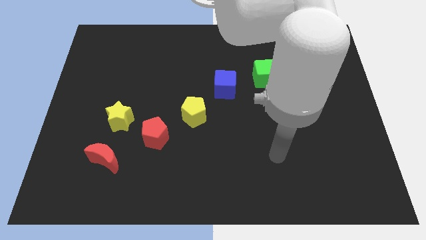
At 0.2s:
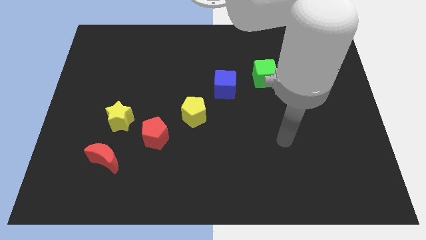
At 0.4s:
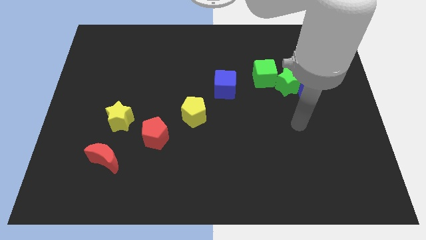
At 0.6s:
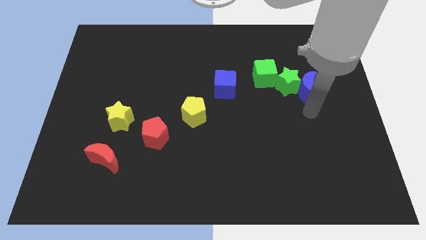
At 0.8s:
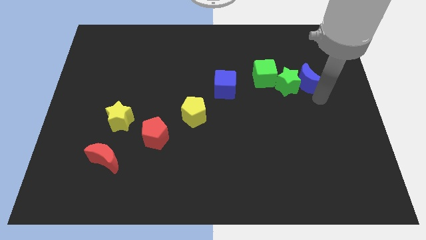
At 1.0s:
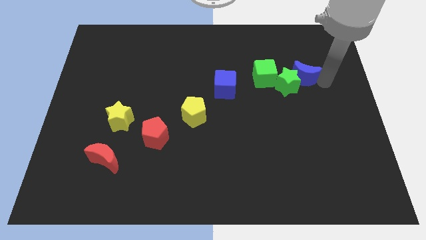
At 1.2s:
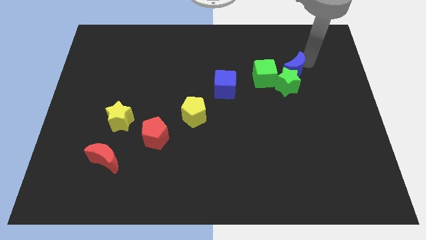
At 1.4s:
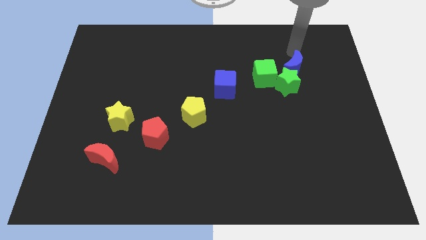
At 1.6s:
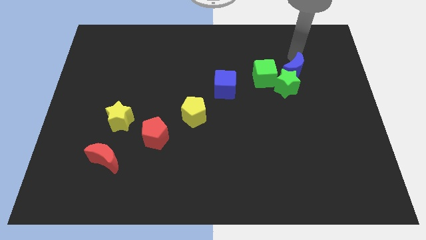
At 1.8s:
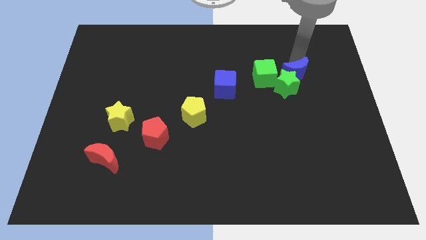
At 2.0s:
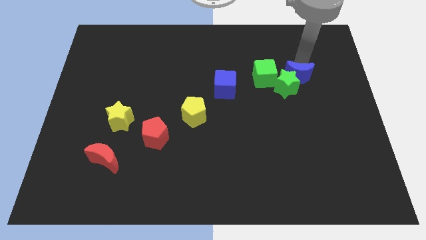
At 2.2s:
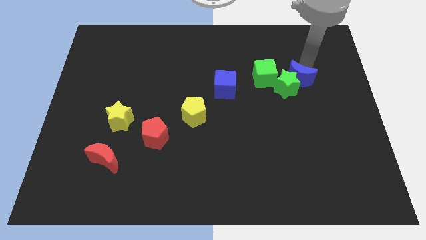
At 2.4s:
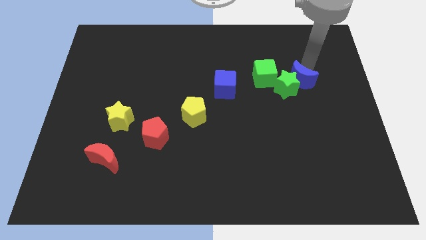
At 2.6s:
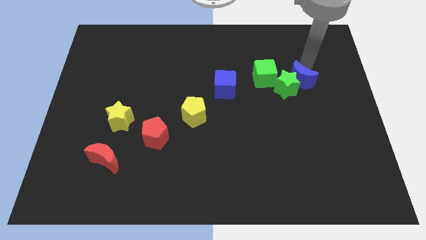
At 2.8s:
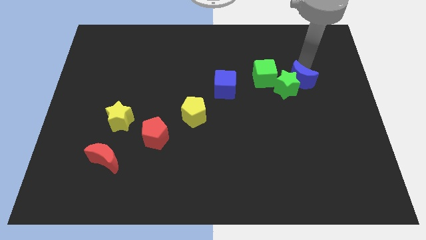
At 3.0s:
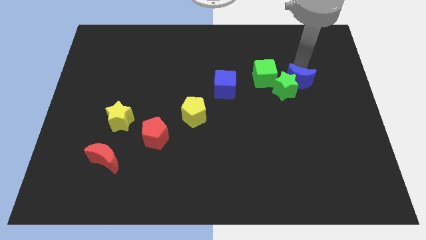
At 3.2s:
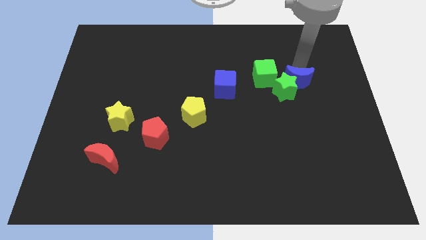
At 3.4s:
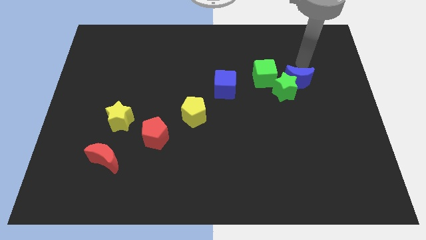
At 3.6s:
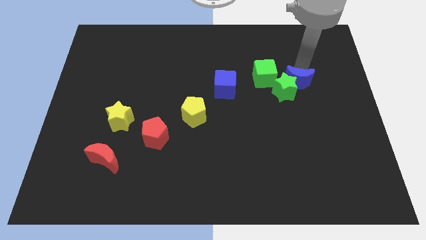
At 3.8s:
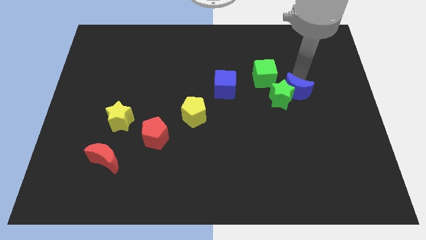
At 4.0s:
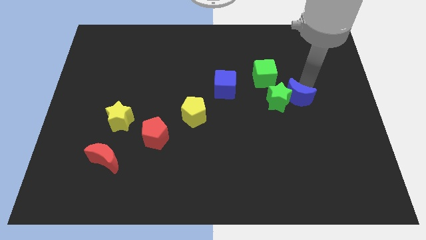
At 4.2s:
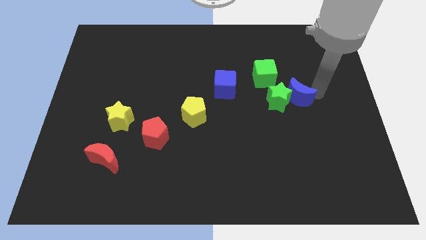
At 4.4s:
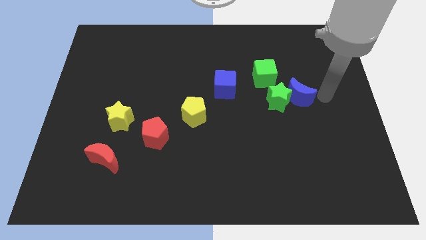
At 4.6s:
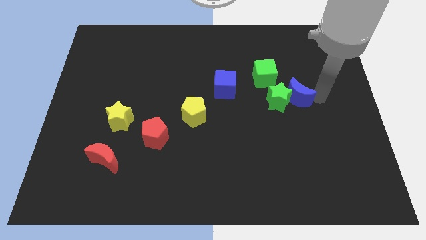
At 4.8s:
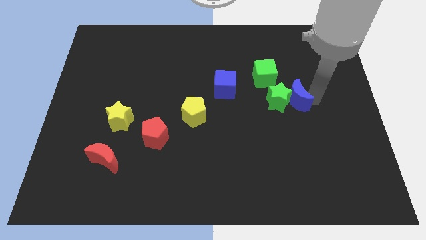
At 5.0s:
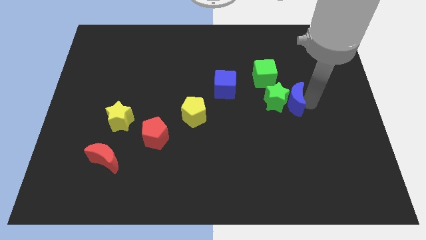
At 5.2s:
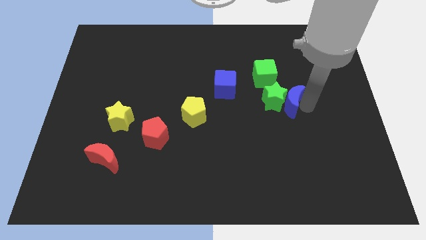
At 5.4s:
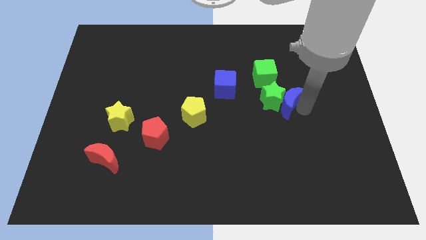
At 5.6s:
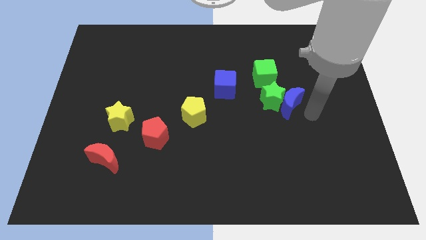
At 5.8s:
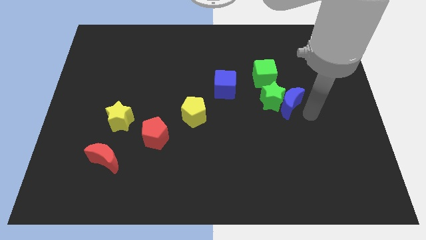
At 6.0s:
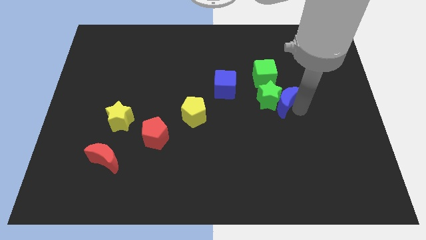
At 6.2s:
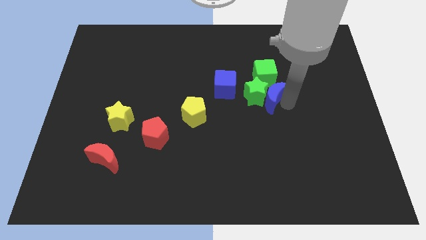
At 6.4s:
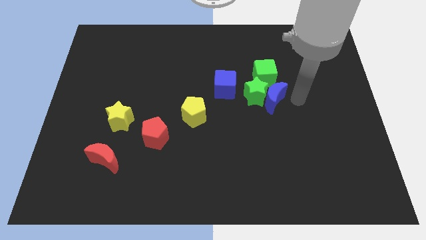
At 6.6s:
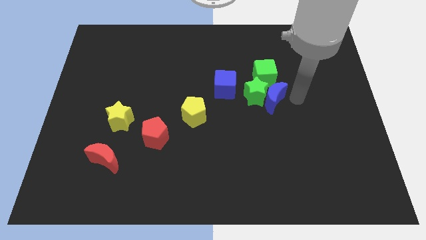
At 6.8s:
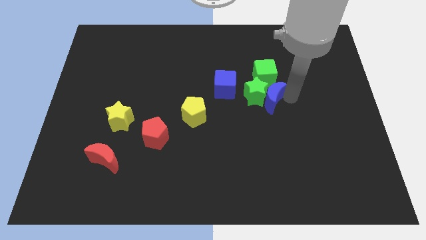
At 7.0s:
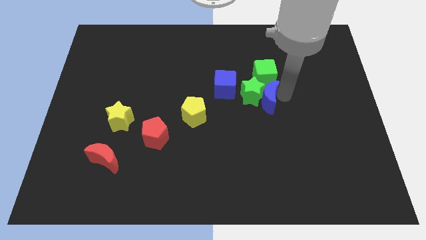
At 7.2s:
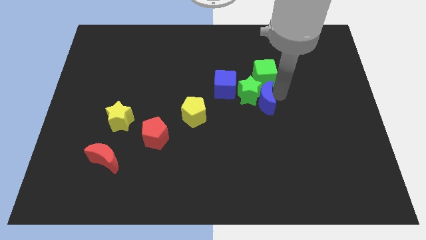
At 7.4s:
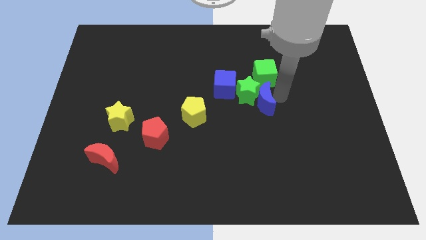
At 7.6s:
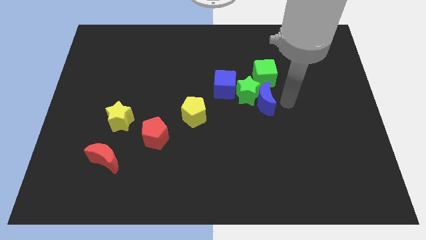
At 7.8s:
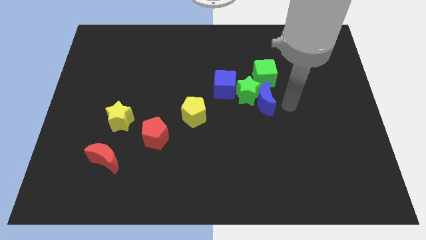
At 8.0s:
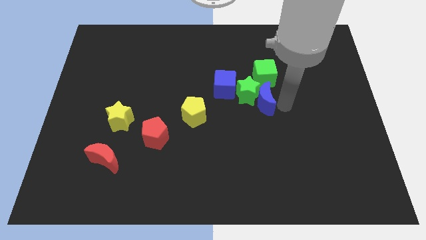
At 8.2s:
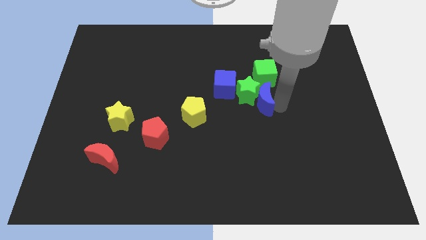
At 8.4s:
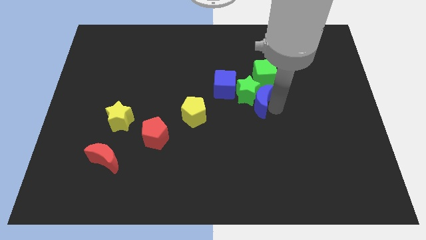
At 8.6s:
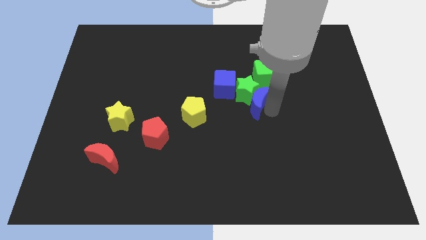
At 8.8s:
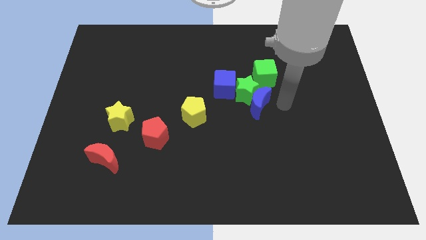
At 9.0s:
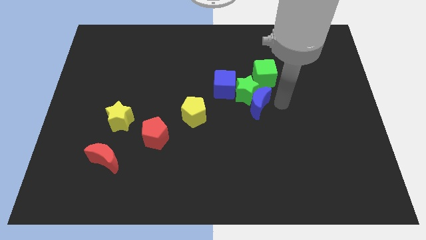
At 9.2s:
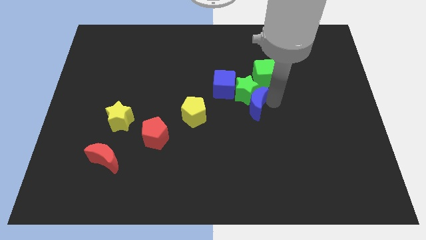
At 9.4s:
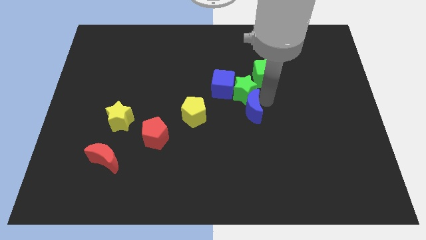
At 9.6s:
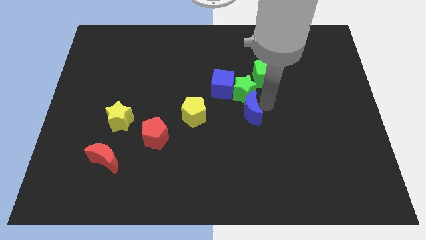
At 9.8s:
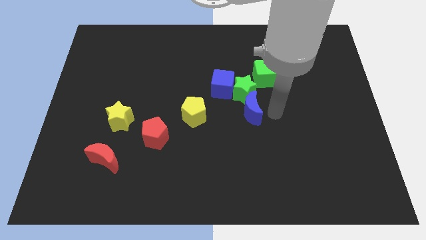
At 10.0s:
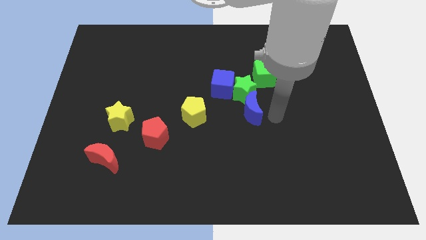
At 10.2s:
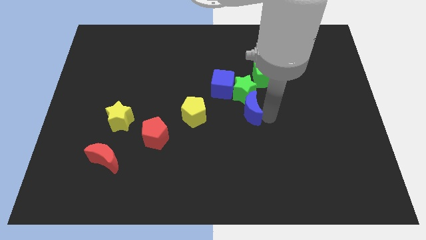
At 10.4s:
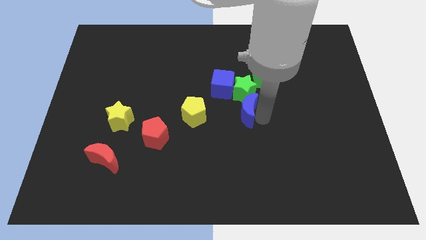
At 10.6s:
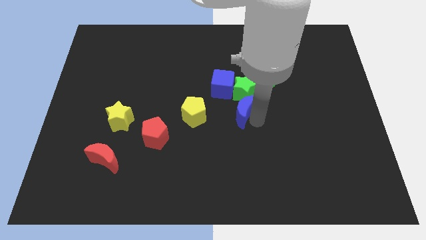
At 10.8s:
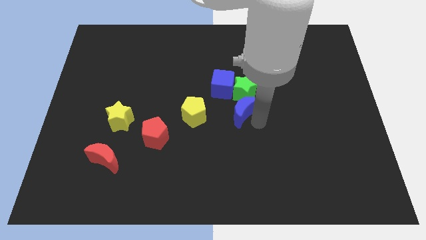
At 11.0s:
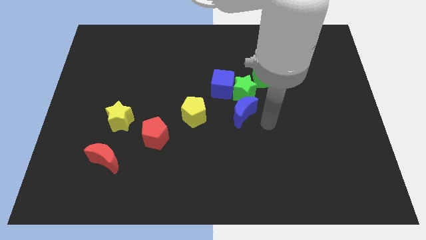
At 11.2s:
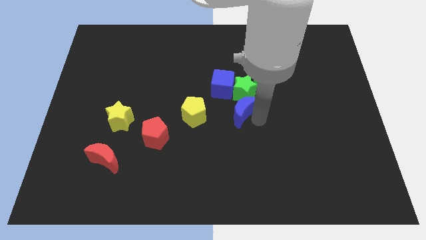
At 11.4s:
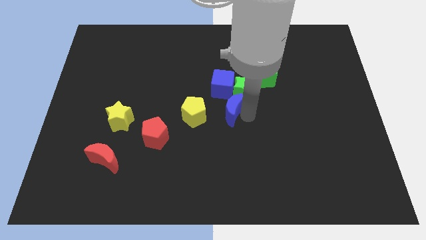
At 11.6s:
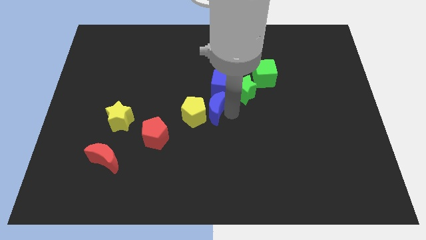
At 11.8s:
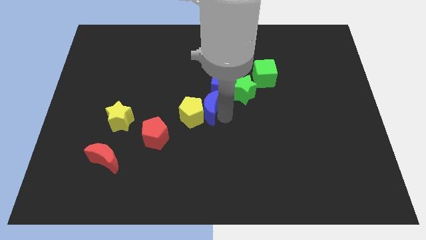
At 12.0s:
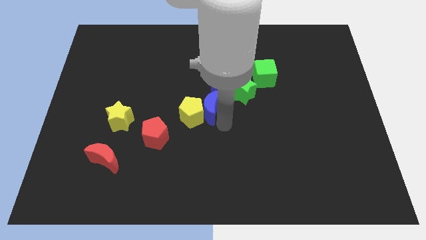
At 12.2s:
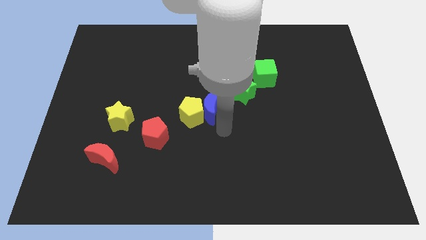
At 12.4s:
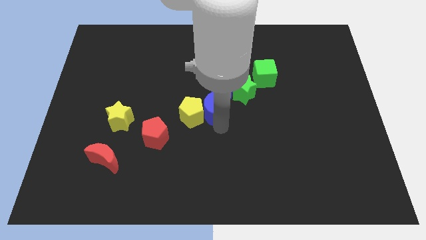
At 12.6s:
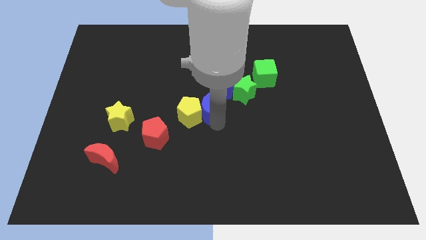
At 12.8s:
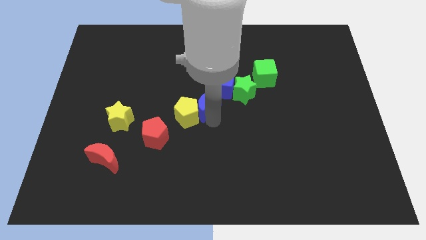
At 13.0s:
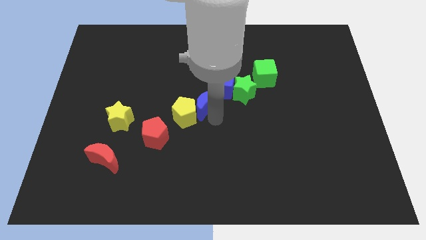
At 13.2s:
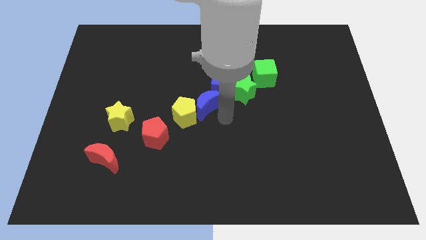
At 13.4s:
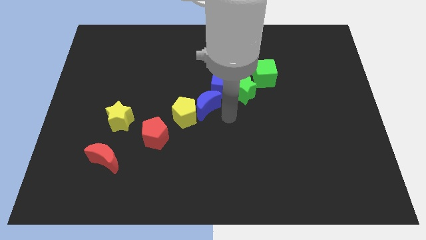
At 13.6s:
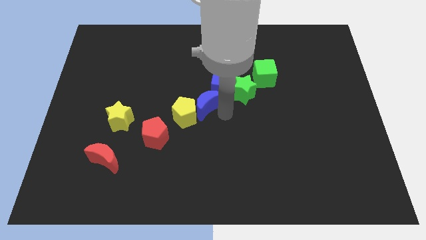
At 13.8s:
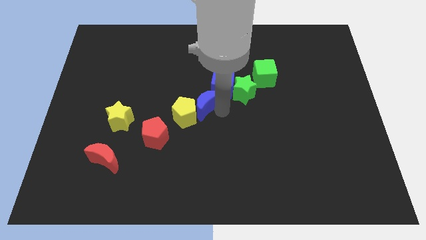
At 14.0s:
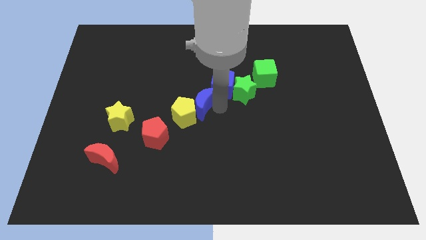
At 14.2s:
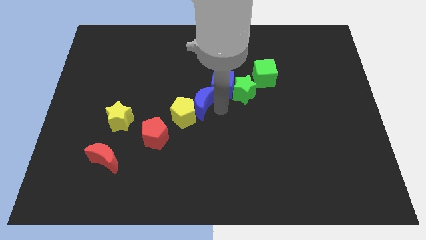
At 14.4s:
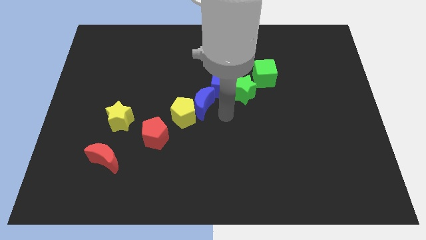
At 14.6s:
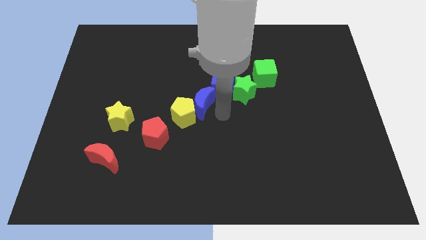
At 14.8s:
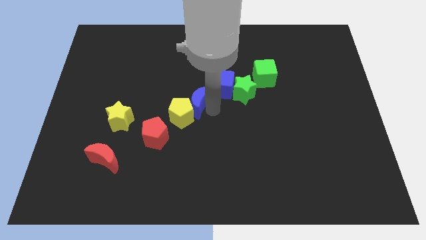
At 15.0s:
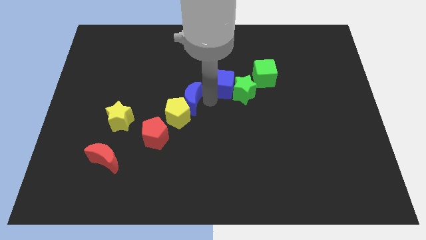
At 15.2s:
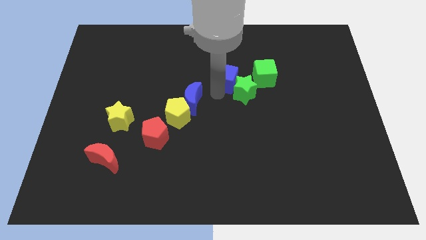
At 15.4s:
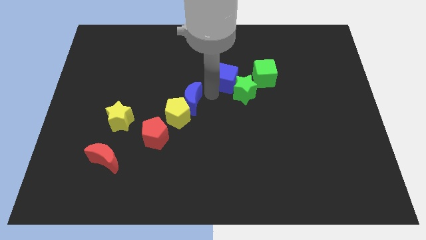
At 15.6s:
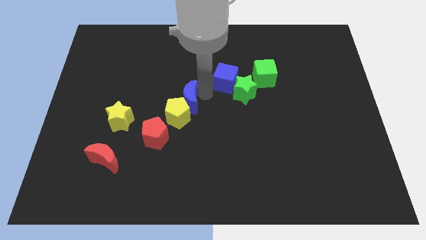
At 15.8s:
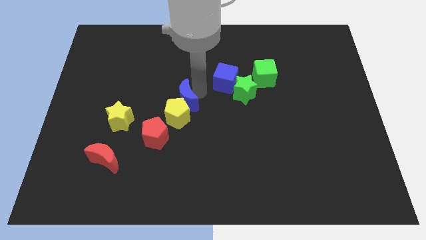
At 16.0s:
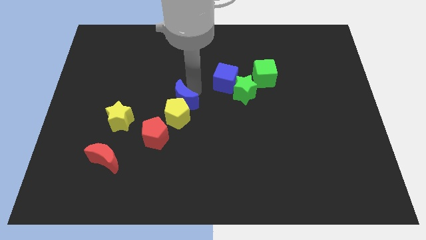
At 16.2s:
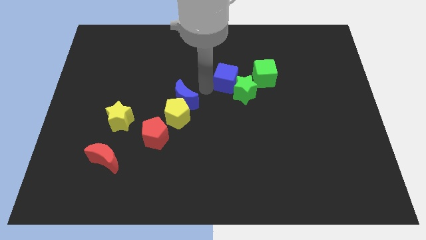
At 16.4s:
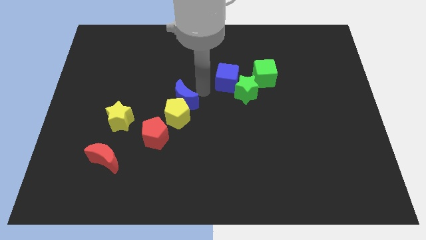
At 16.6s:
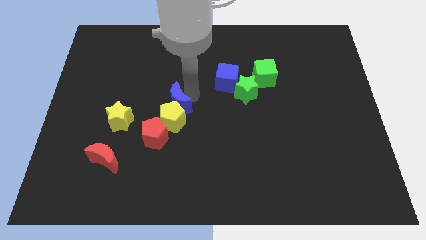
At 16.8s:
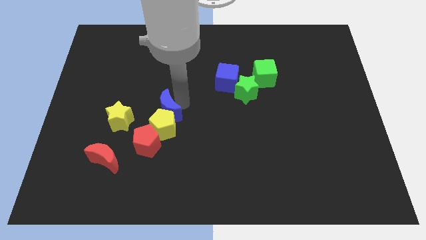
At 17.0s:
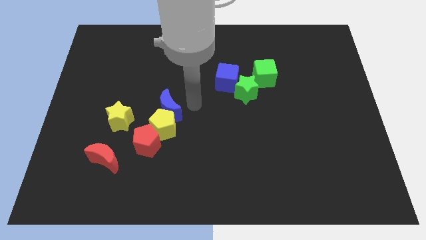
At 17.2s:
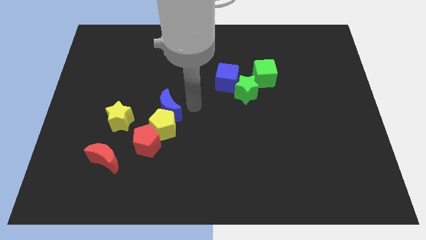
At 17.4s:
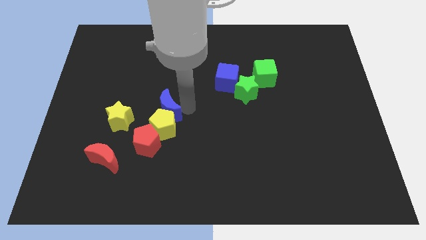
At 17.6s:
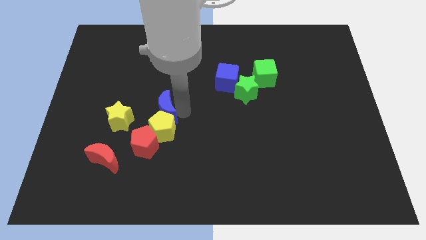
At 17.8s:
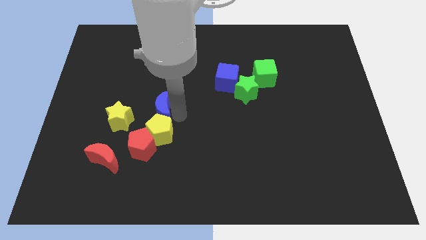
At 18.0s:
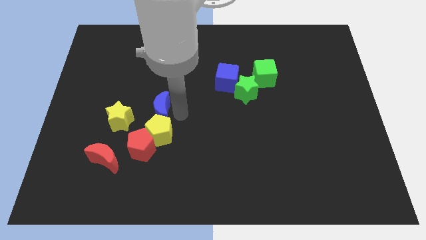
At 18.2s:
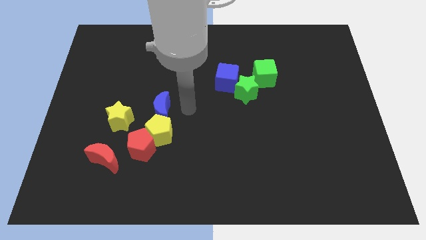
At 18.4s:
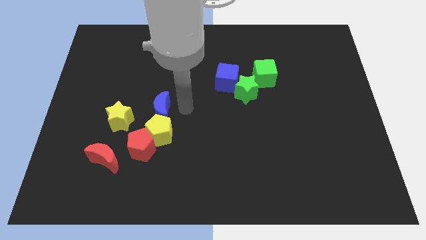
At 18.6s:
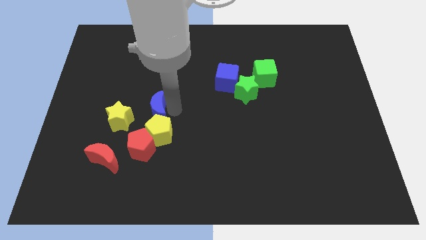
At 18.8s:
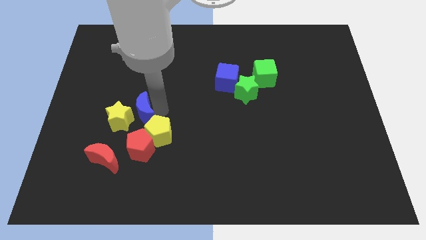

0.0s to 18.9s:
push the blue moon next to the yellow star
